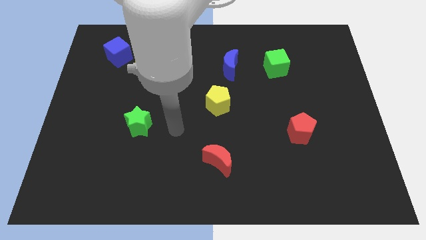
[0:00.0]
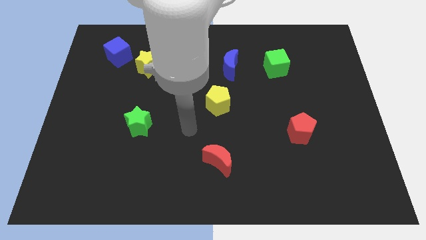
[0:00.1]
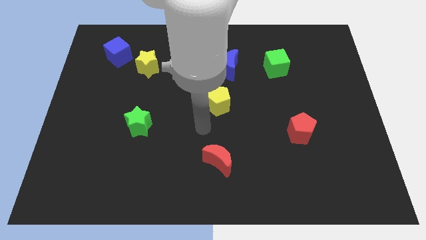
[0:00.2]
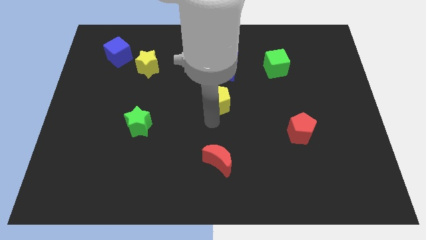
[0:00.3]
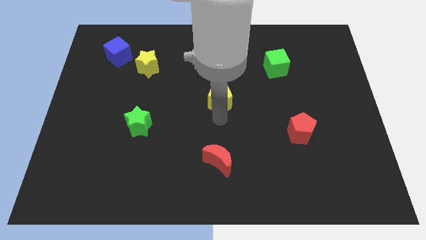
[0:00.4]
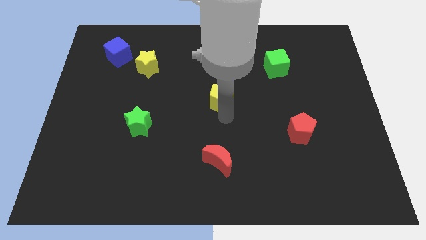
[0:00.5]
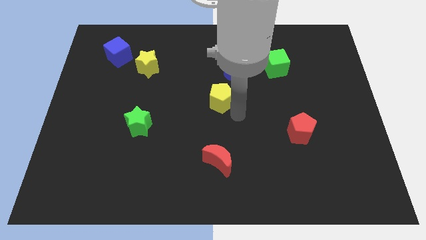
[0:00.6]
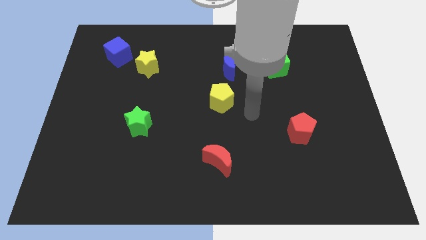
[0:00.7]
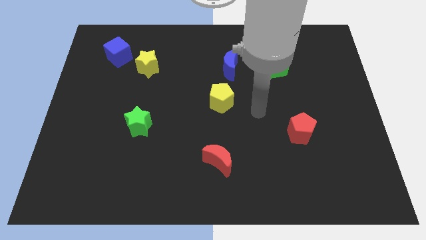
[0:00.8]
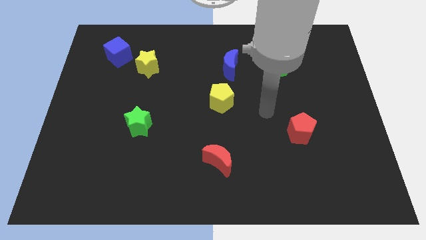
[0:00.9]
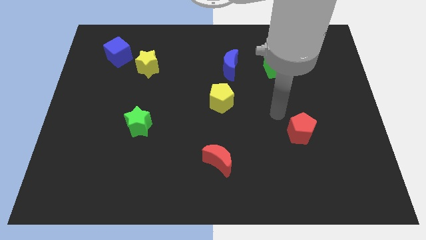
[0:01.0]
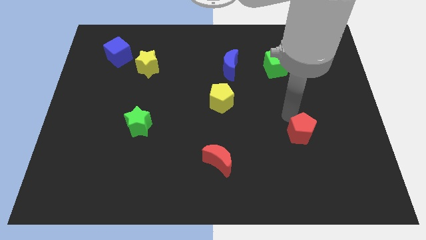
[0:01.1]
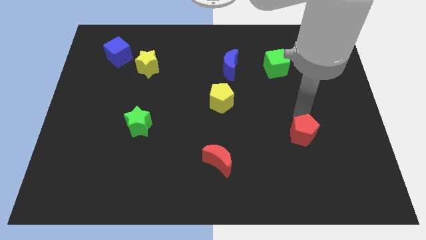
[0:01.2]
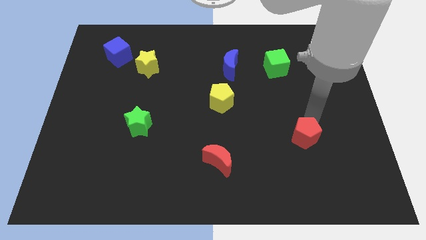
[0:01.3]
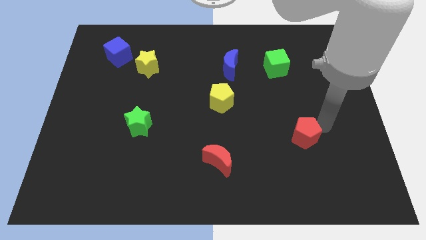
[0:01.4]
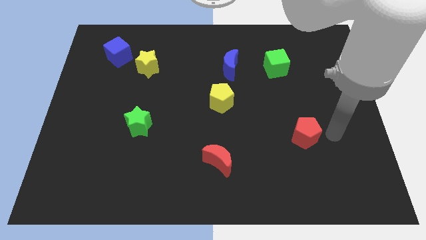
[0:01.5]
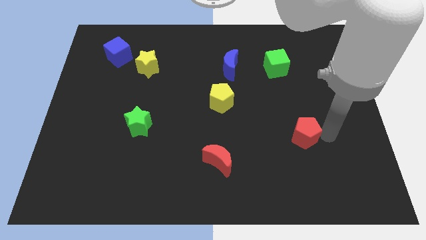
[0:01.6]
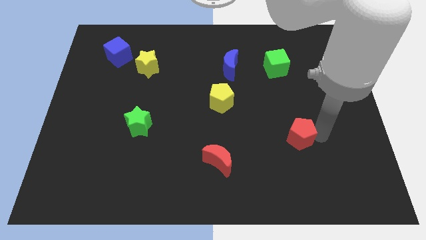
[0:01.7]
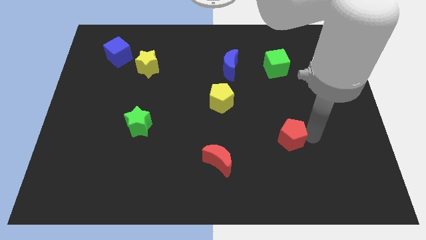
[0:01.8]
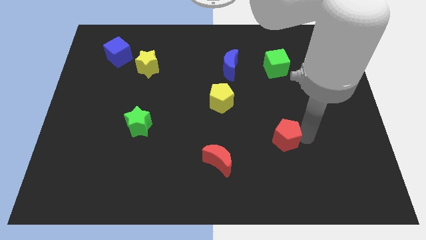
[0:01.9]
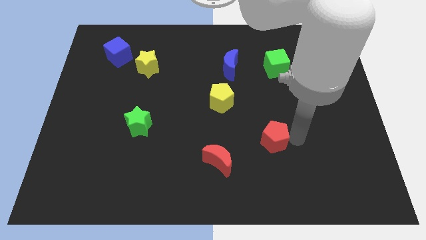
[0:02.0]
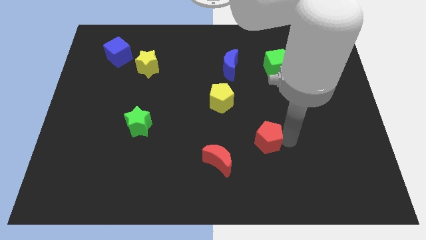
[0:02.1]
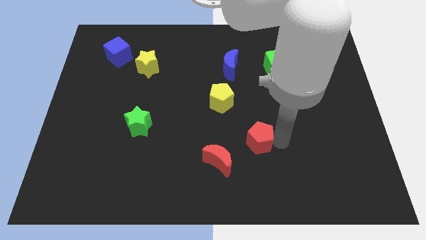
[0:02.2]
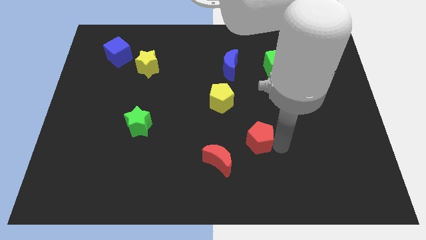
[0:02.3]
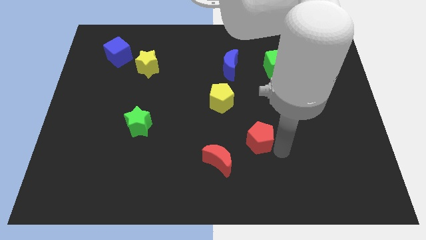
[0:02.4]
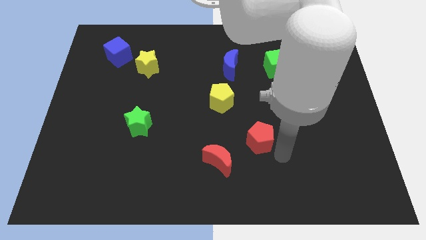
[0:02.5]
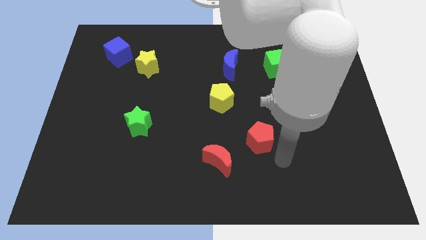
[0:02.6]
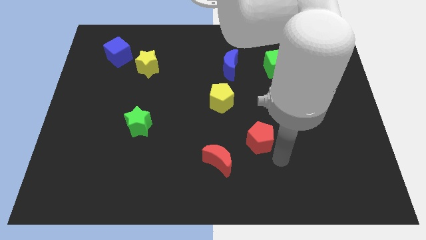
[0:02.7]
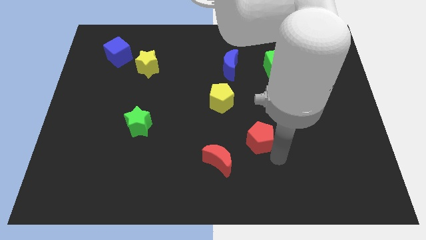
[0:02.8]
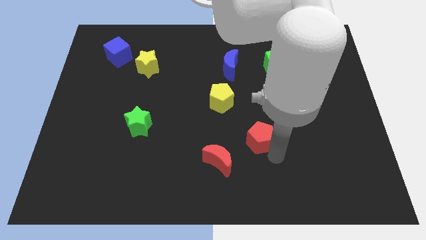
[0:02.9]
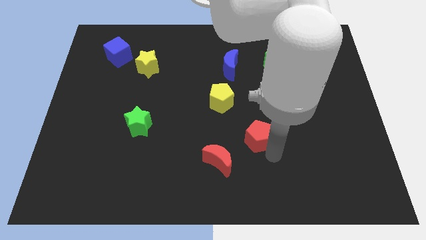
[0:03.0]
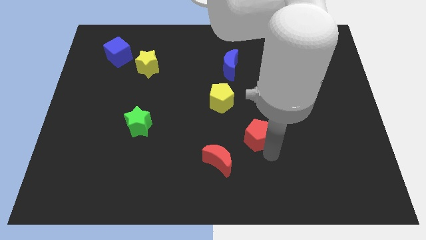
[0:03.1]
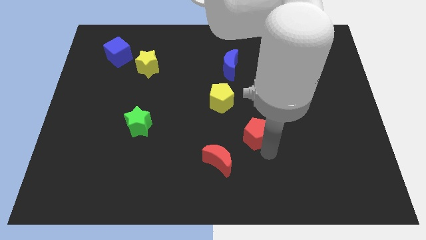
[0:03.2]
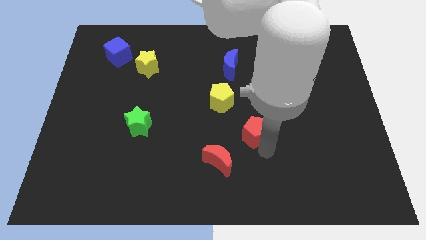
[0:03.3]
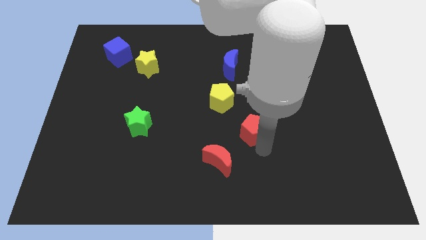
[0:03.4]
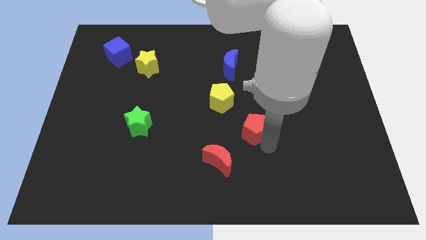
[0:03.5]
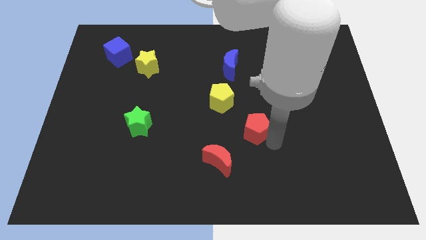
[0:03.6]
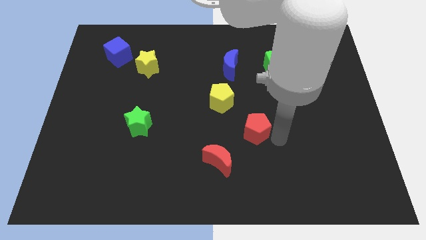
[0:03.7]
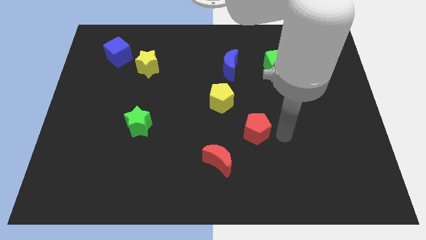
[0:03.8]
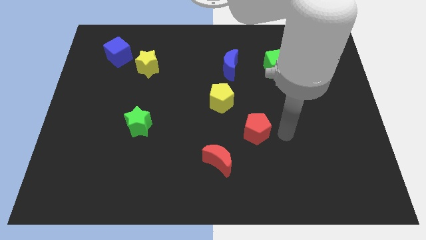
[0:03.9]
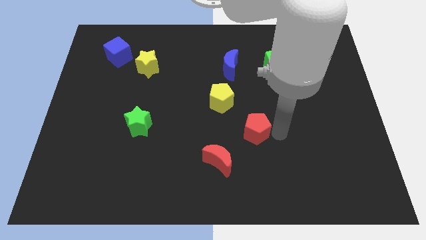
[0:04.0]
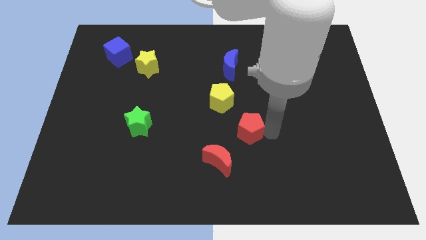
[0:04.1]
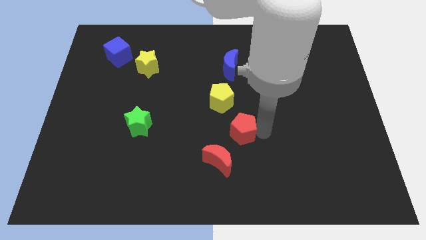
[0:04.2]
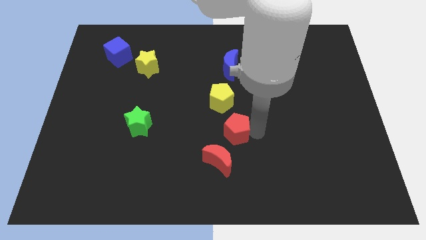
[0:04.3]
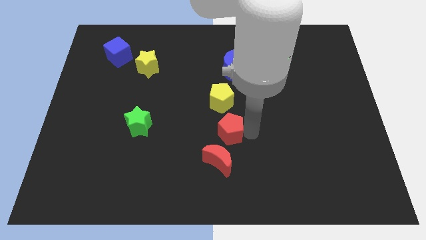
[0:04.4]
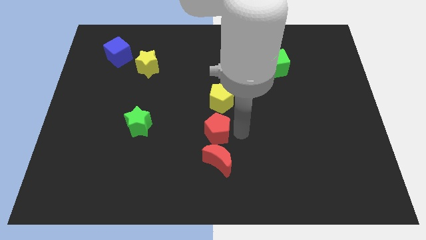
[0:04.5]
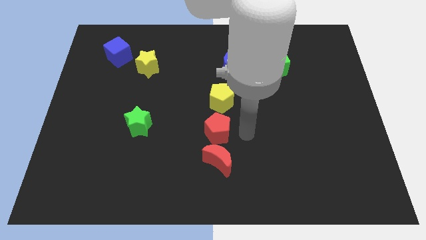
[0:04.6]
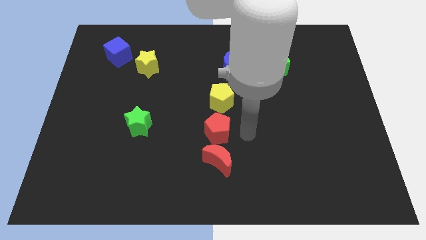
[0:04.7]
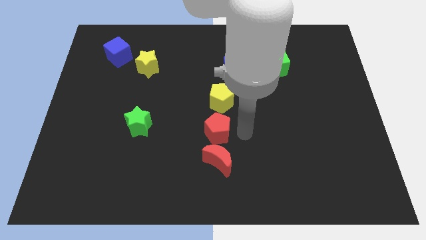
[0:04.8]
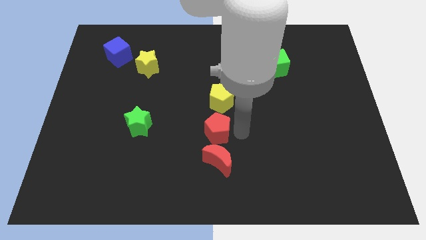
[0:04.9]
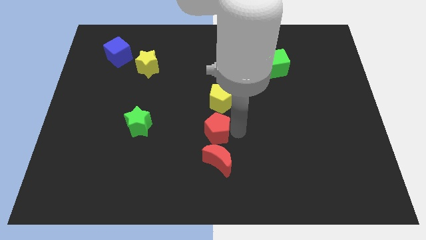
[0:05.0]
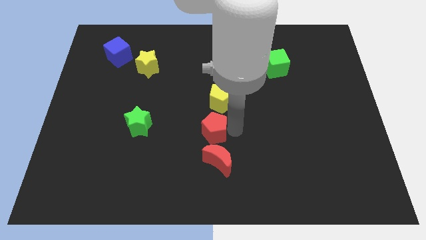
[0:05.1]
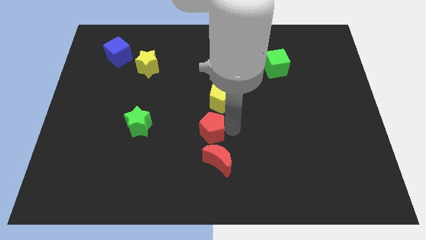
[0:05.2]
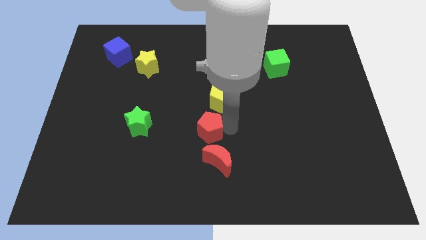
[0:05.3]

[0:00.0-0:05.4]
slide the red pentagon to the left

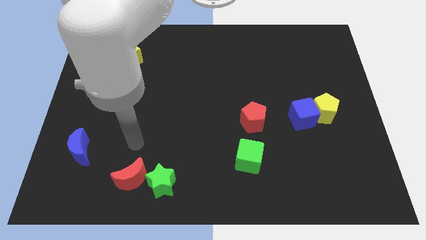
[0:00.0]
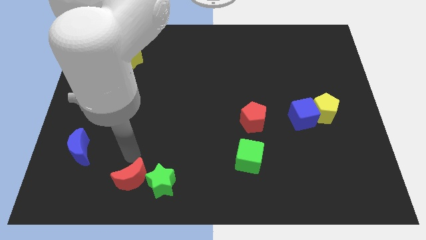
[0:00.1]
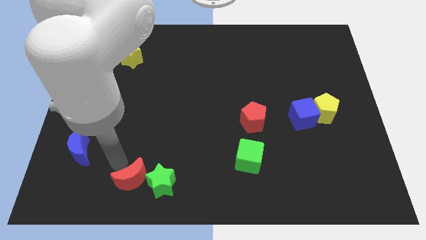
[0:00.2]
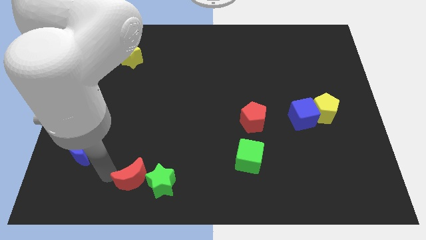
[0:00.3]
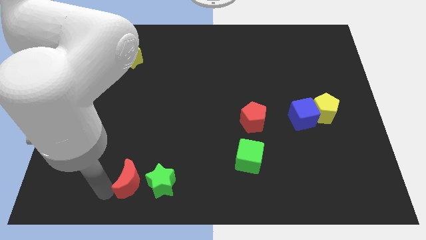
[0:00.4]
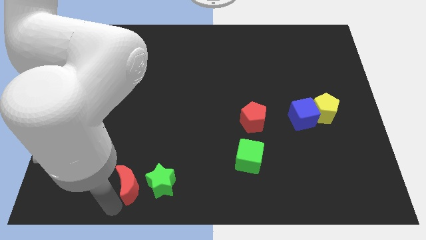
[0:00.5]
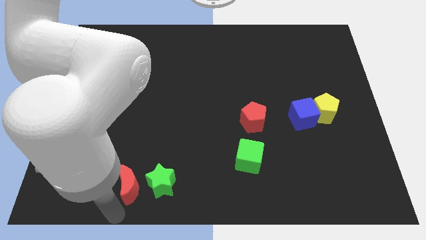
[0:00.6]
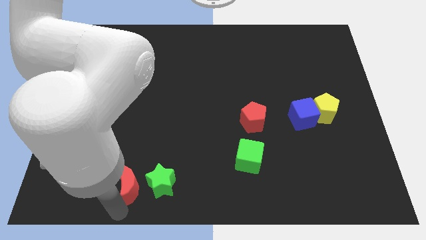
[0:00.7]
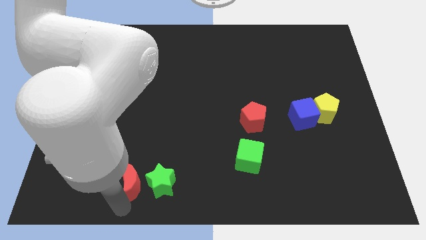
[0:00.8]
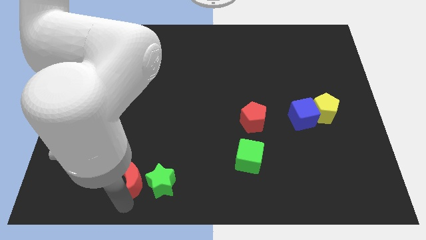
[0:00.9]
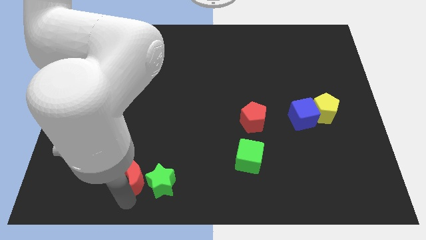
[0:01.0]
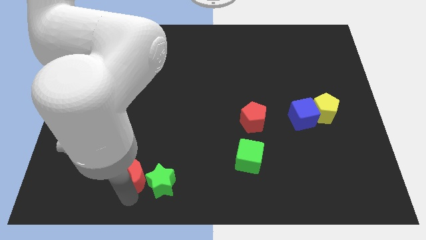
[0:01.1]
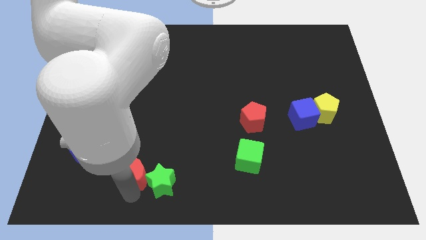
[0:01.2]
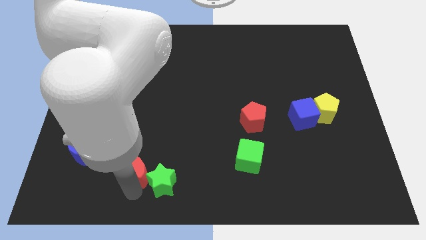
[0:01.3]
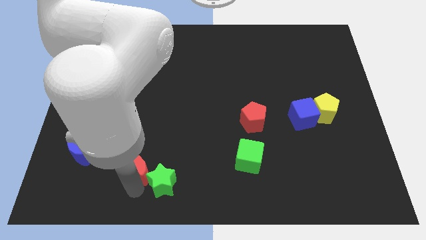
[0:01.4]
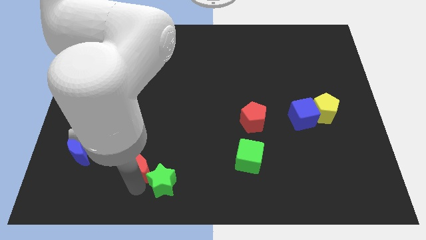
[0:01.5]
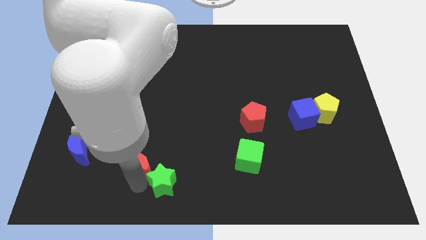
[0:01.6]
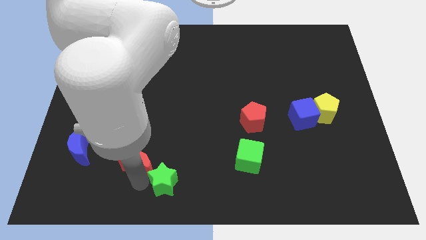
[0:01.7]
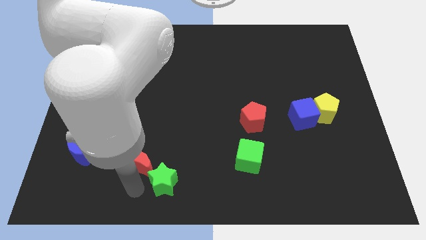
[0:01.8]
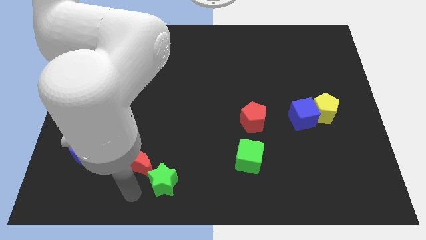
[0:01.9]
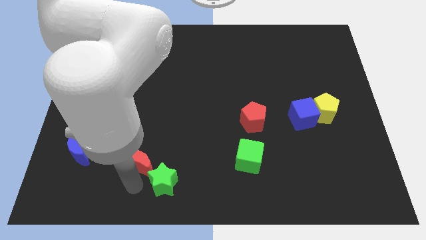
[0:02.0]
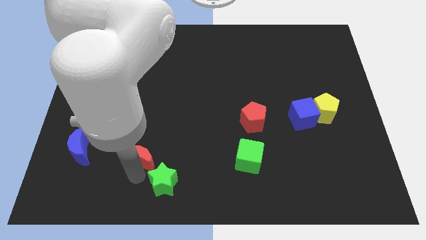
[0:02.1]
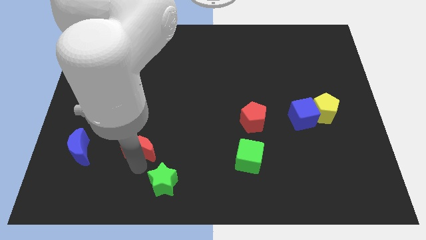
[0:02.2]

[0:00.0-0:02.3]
slightly slide the red moon up

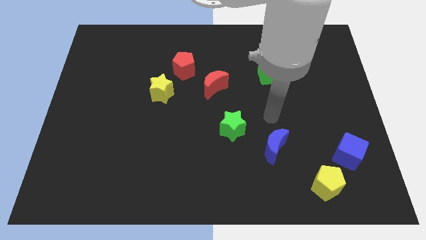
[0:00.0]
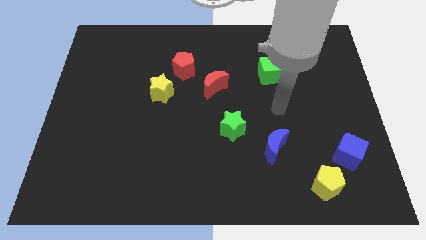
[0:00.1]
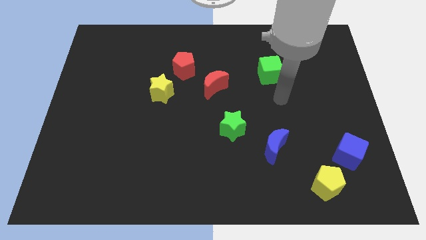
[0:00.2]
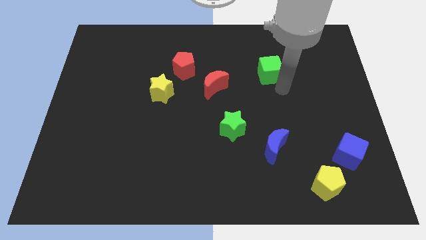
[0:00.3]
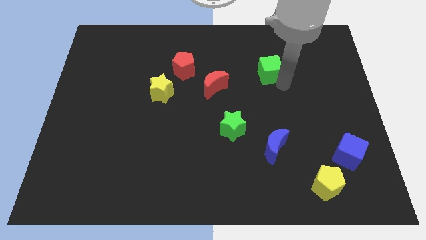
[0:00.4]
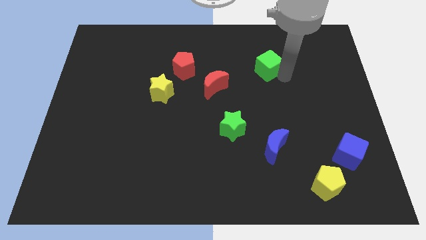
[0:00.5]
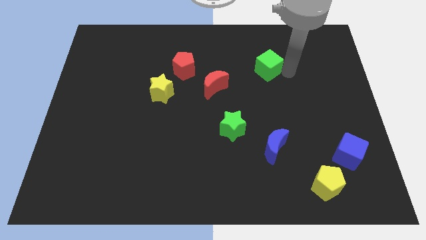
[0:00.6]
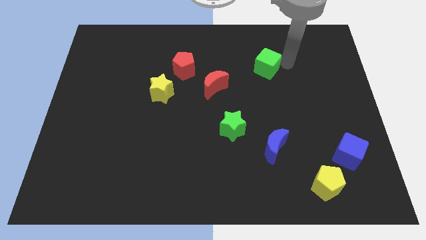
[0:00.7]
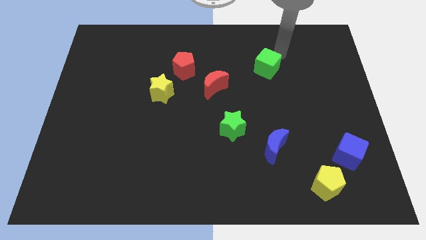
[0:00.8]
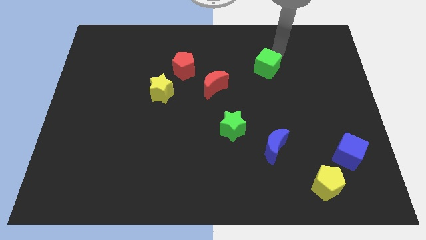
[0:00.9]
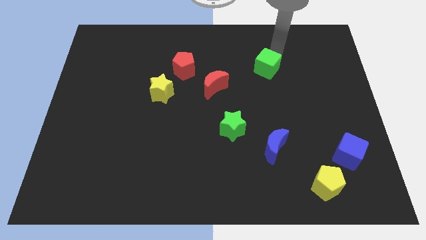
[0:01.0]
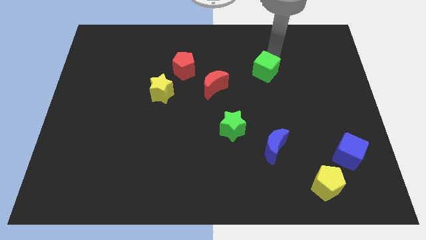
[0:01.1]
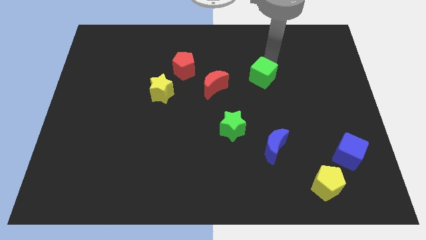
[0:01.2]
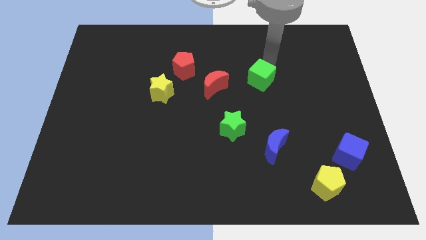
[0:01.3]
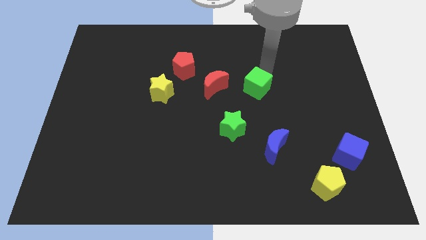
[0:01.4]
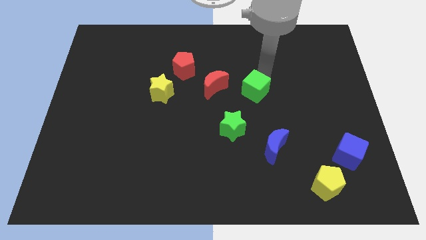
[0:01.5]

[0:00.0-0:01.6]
slightly push the green cube down and to the left diagonally
